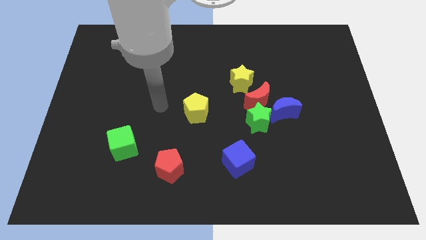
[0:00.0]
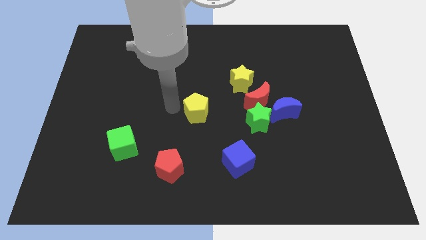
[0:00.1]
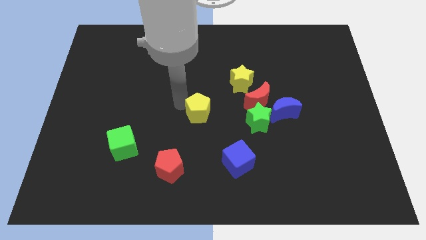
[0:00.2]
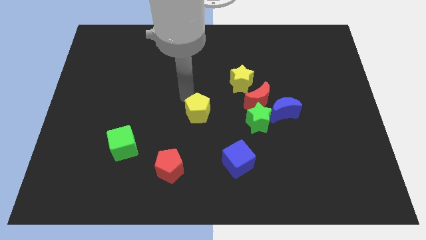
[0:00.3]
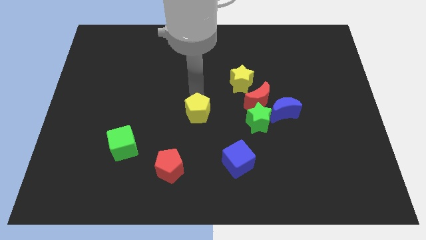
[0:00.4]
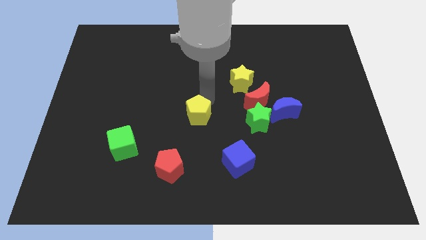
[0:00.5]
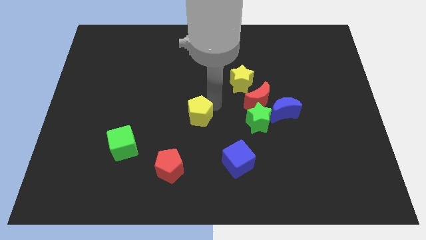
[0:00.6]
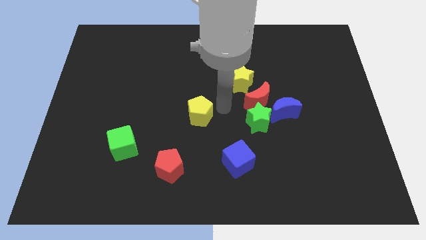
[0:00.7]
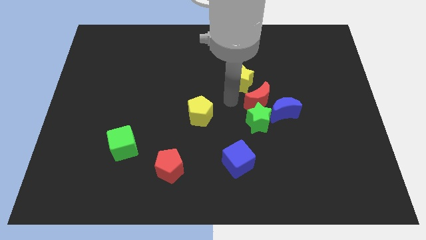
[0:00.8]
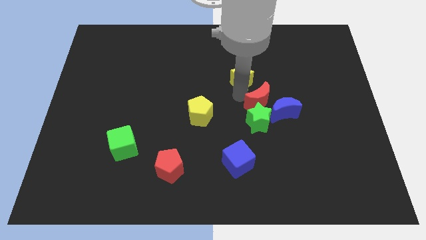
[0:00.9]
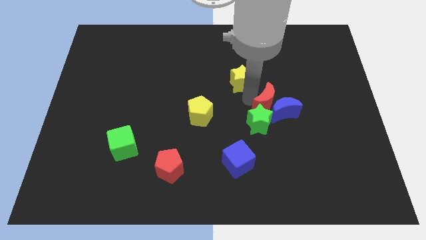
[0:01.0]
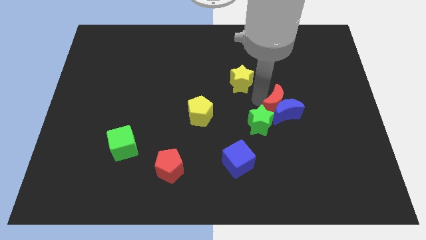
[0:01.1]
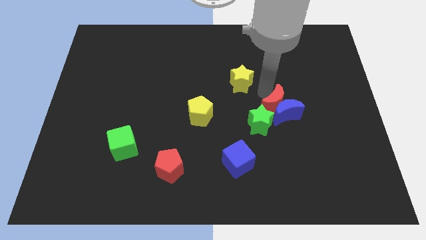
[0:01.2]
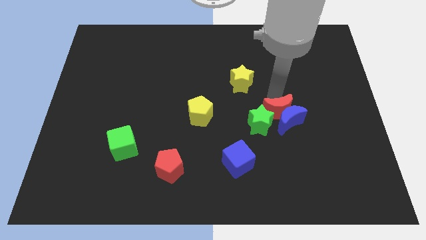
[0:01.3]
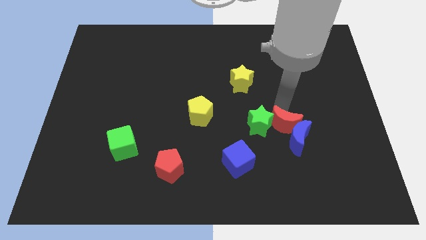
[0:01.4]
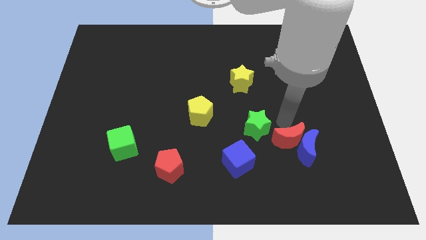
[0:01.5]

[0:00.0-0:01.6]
pull the green star apart from the red moon and blue moon

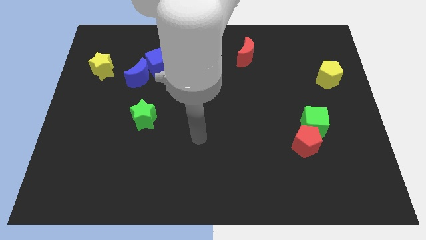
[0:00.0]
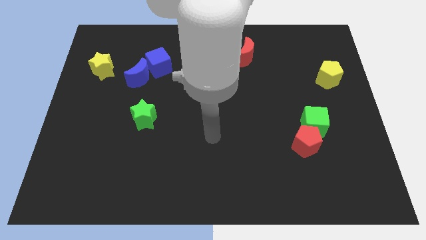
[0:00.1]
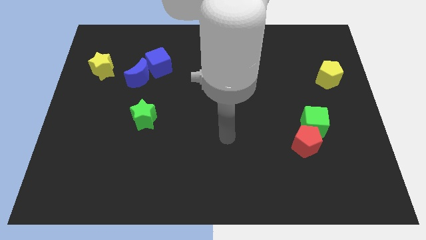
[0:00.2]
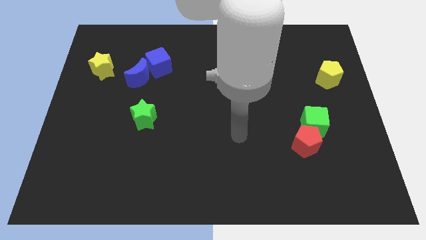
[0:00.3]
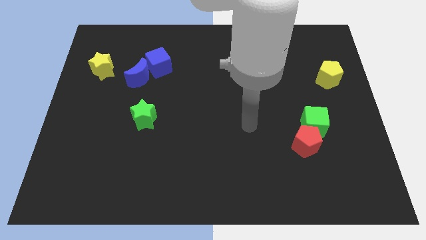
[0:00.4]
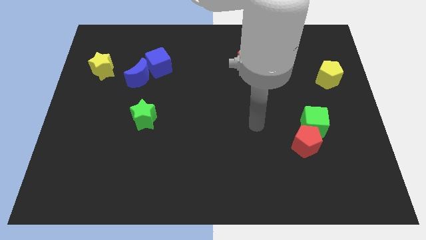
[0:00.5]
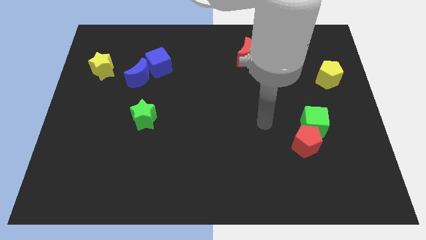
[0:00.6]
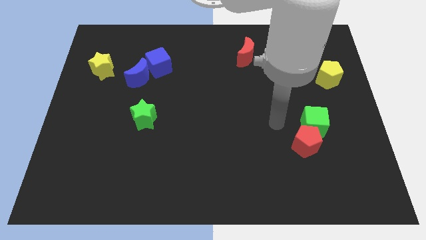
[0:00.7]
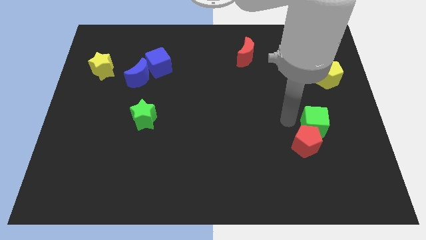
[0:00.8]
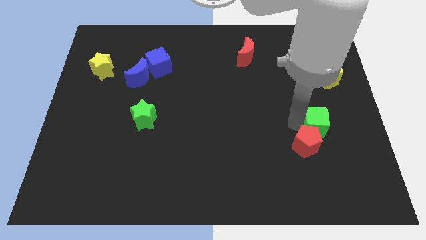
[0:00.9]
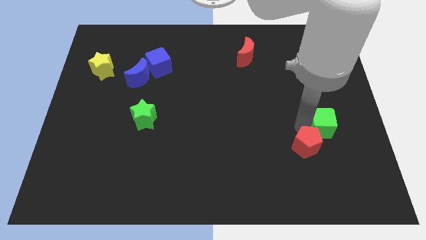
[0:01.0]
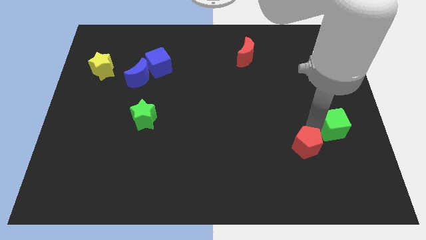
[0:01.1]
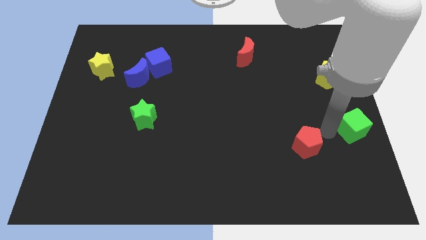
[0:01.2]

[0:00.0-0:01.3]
pull the red pentagon apart from the green cube

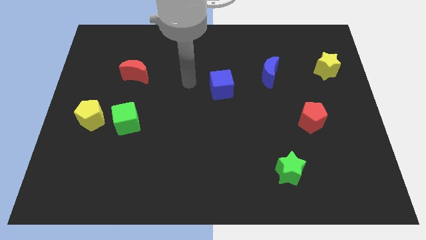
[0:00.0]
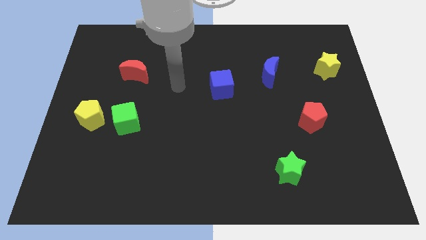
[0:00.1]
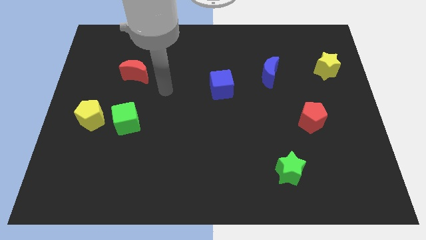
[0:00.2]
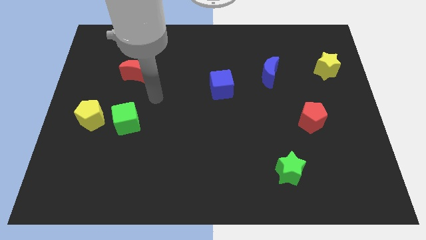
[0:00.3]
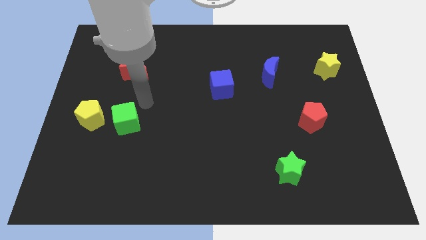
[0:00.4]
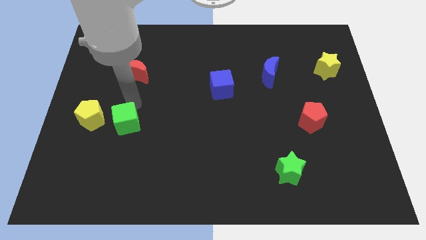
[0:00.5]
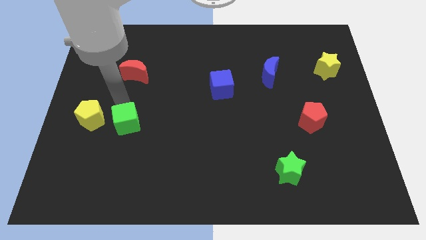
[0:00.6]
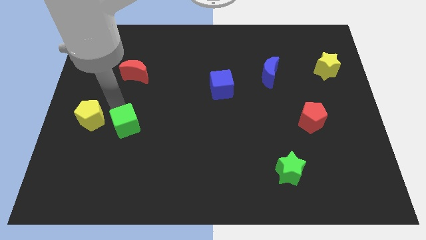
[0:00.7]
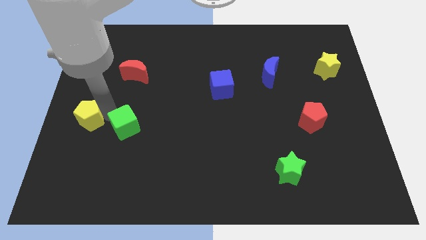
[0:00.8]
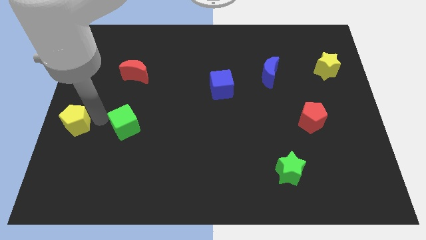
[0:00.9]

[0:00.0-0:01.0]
separate the green cube from the yellow pentagon

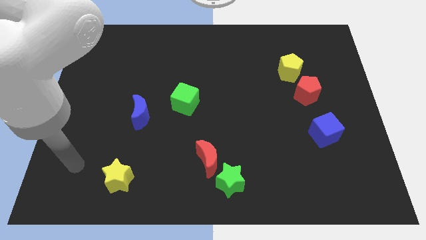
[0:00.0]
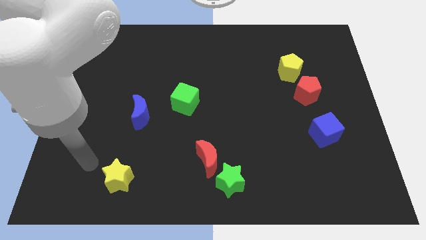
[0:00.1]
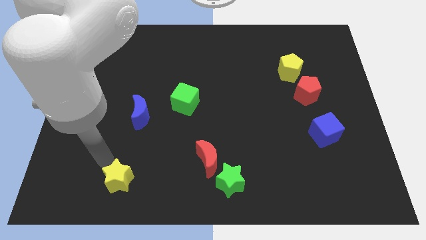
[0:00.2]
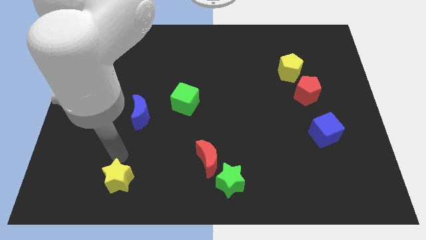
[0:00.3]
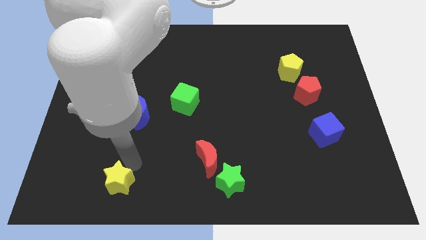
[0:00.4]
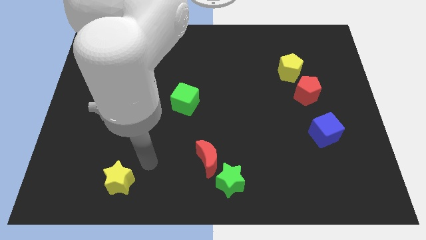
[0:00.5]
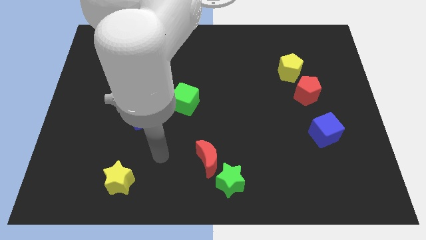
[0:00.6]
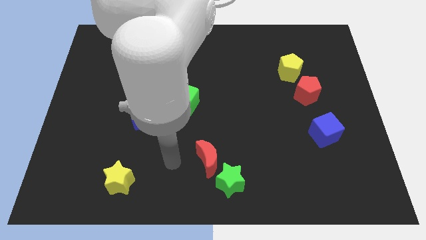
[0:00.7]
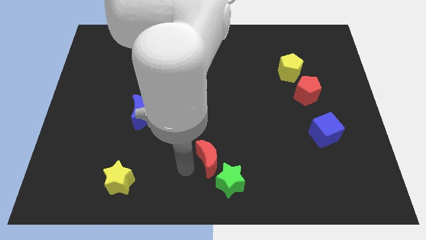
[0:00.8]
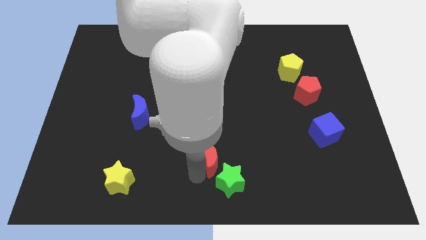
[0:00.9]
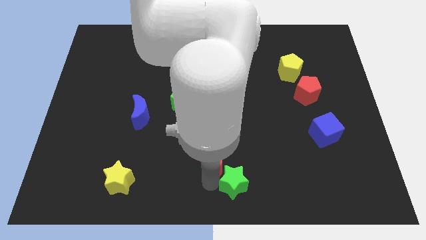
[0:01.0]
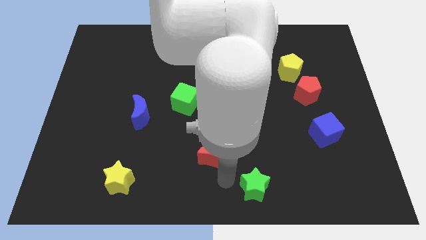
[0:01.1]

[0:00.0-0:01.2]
move the red moon away from the green star

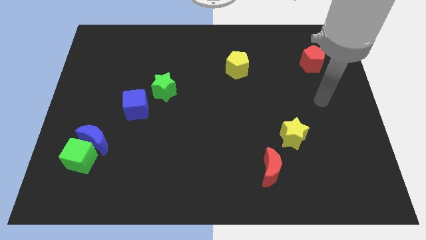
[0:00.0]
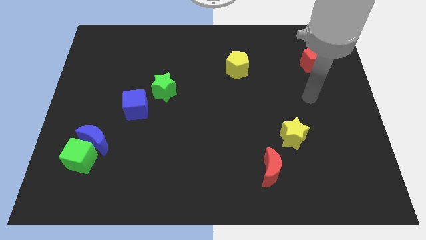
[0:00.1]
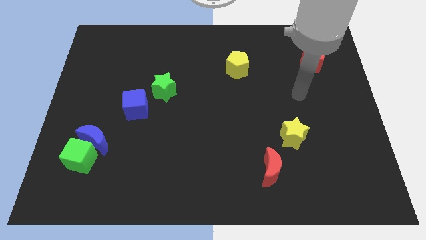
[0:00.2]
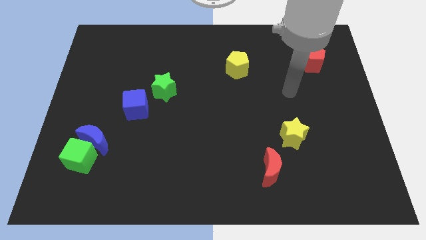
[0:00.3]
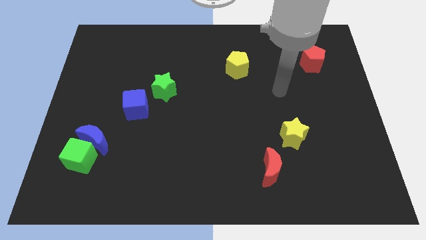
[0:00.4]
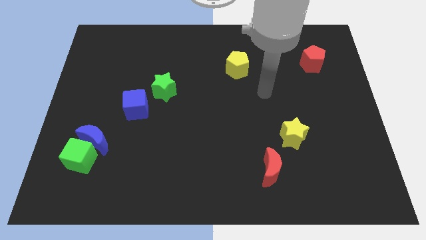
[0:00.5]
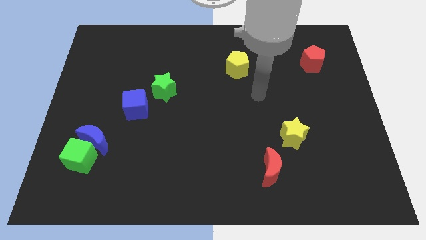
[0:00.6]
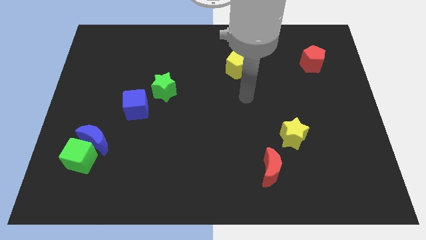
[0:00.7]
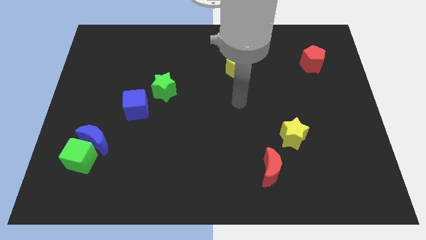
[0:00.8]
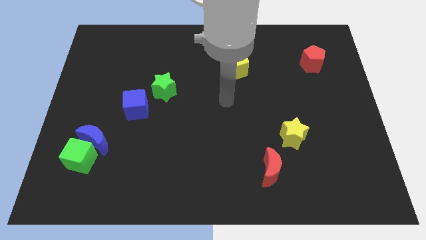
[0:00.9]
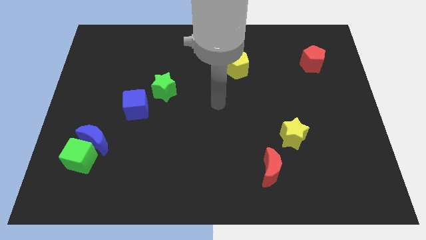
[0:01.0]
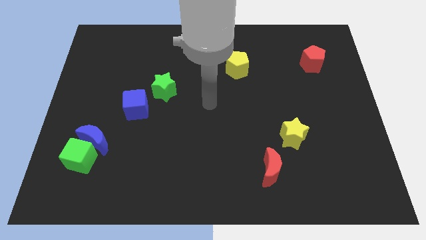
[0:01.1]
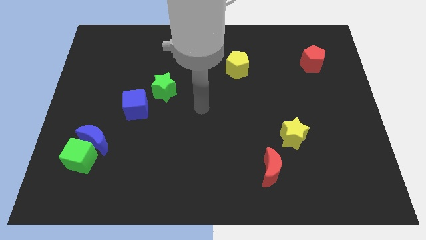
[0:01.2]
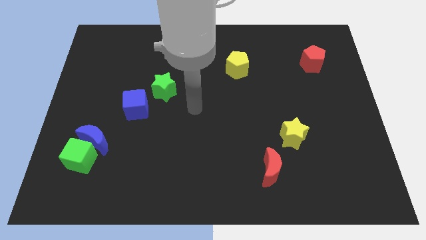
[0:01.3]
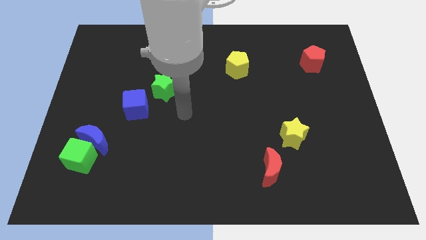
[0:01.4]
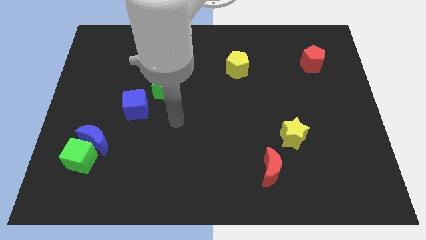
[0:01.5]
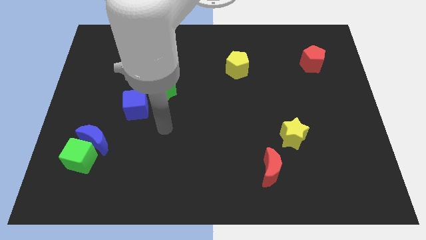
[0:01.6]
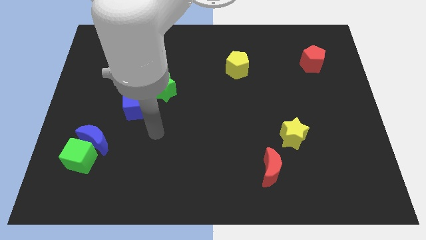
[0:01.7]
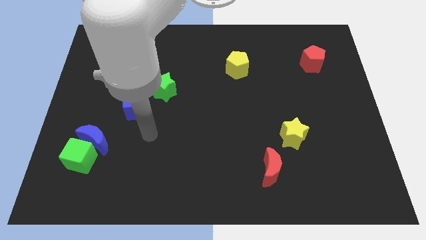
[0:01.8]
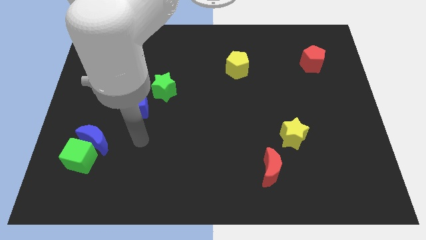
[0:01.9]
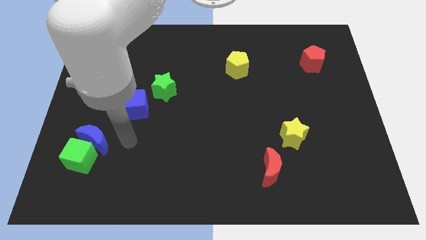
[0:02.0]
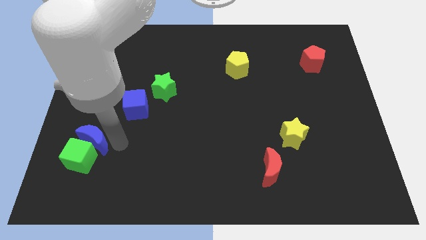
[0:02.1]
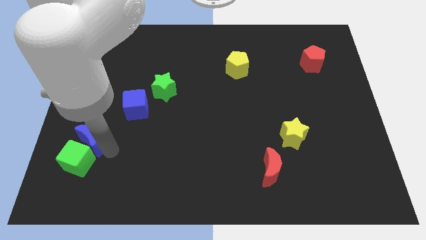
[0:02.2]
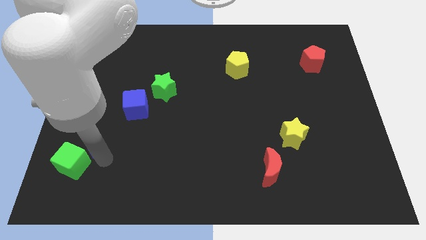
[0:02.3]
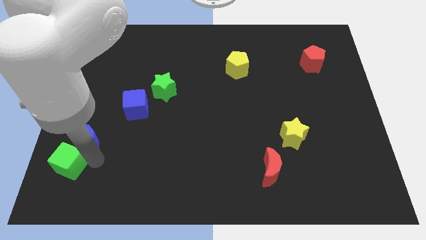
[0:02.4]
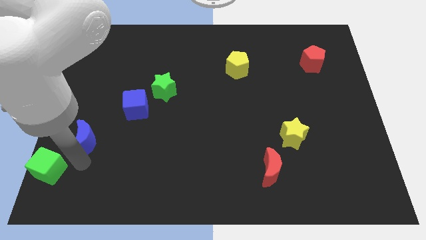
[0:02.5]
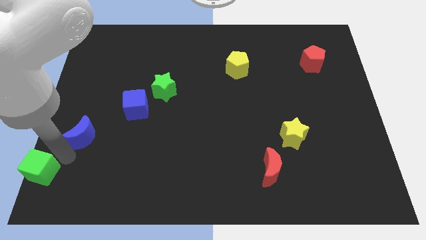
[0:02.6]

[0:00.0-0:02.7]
move the blue moon away from the green cube

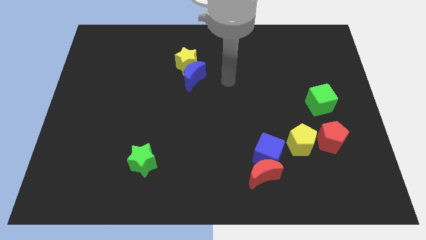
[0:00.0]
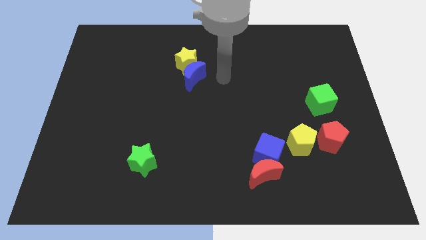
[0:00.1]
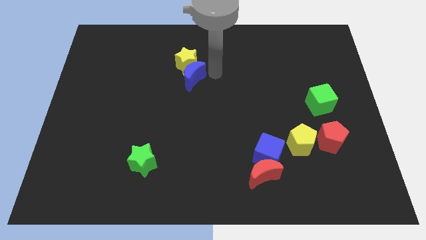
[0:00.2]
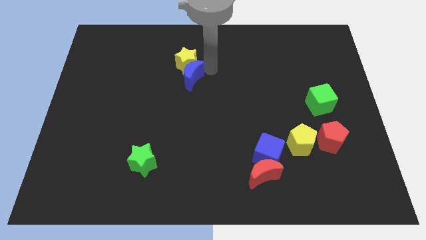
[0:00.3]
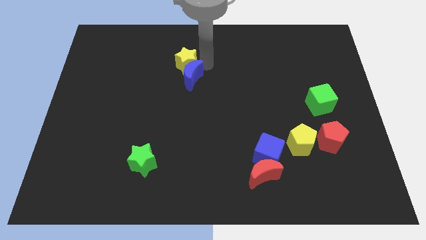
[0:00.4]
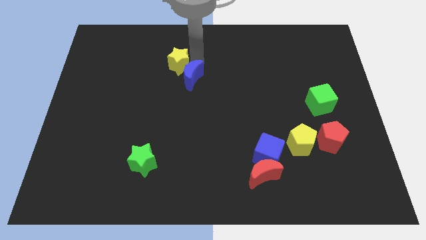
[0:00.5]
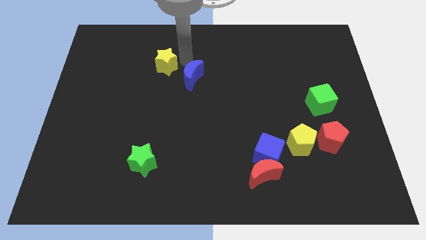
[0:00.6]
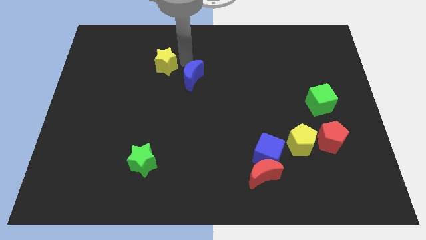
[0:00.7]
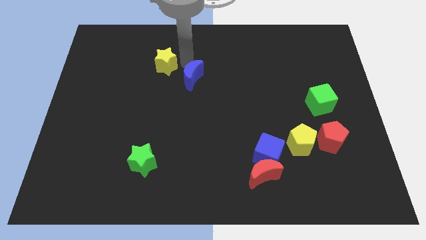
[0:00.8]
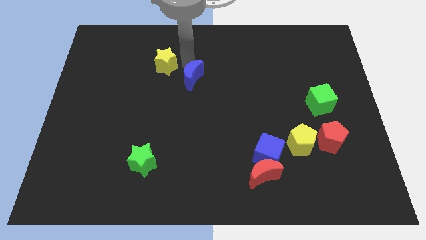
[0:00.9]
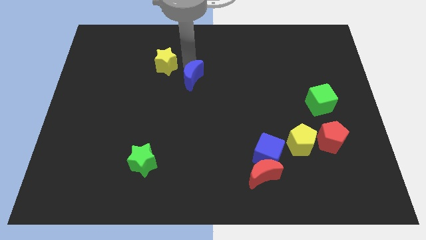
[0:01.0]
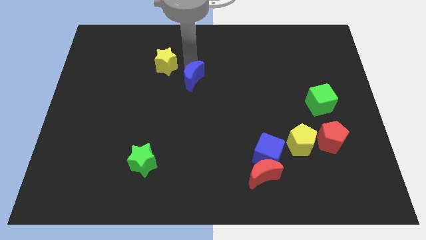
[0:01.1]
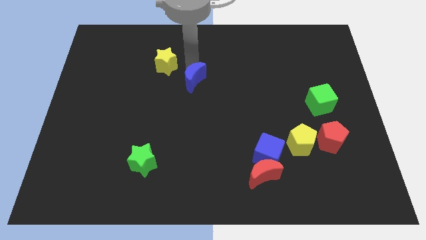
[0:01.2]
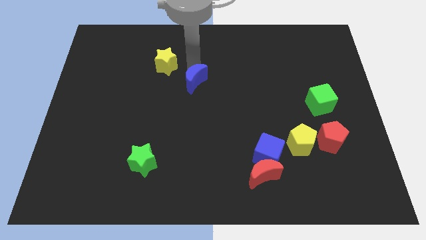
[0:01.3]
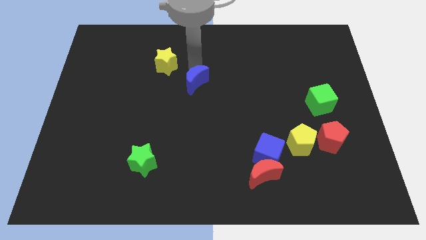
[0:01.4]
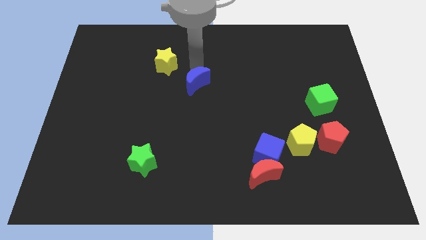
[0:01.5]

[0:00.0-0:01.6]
separate the blue moon from the yellow star
